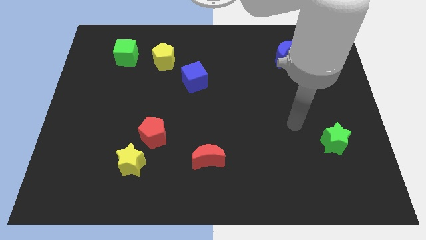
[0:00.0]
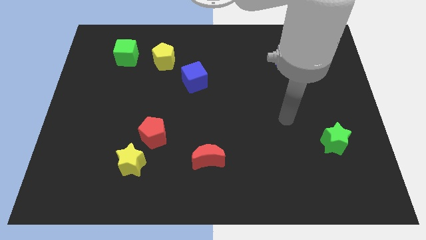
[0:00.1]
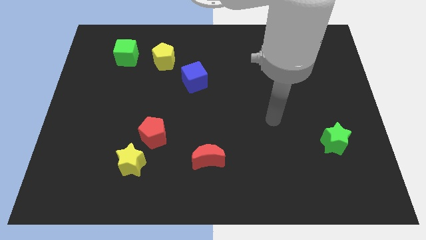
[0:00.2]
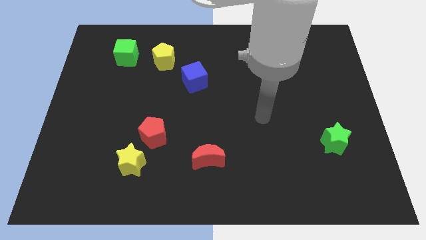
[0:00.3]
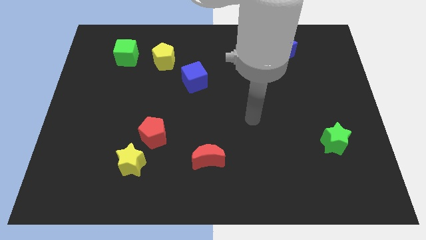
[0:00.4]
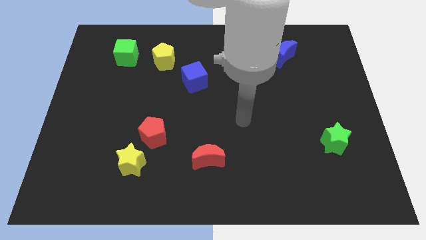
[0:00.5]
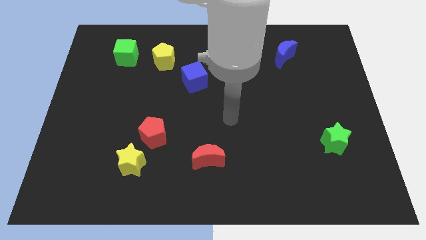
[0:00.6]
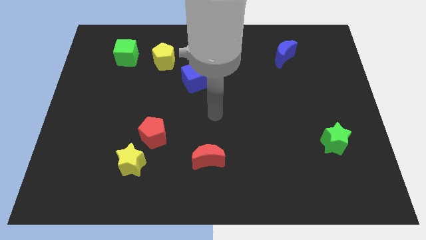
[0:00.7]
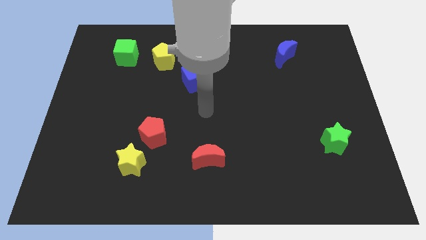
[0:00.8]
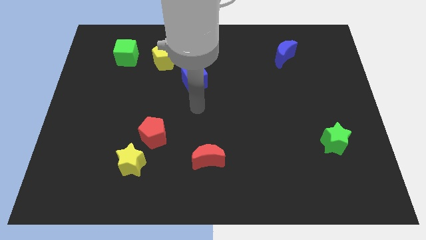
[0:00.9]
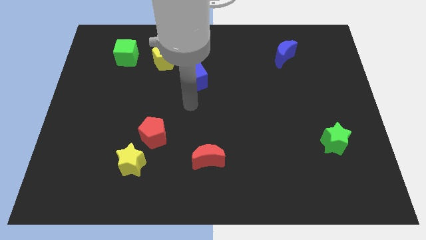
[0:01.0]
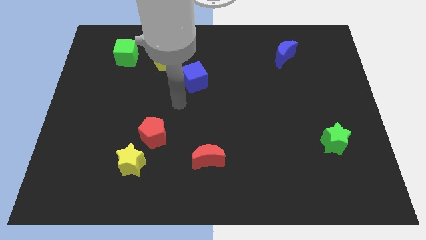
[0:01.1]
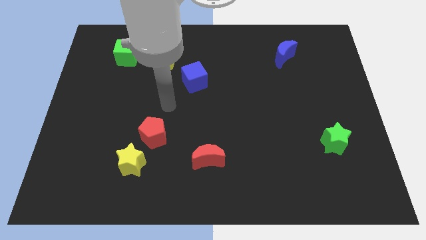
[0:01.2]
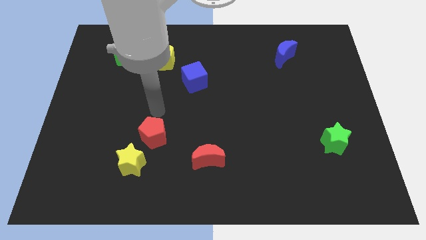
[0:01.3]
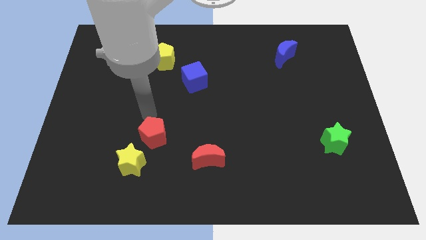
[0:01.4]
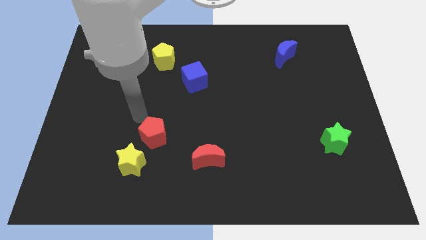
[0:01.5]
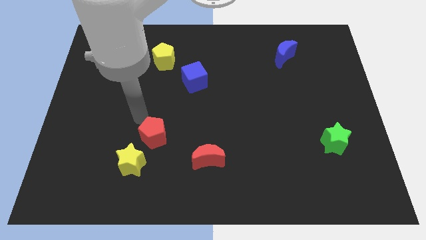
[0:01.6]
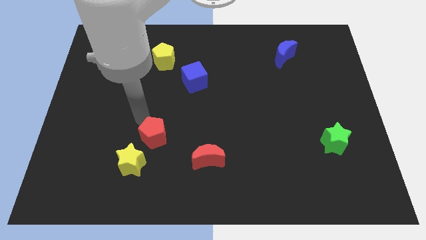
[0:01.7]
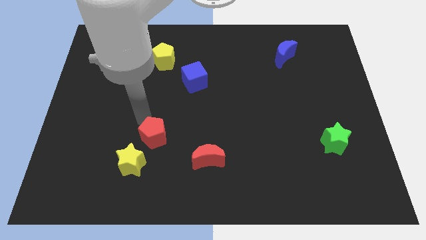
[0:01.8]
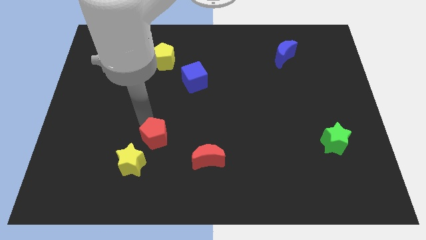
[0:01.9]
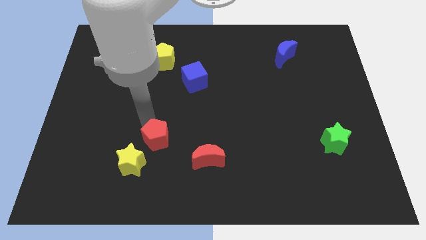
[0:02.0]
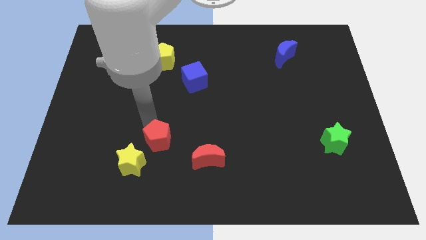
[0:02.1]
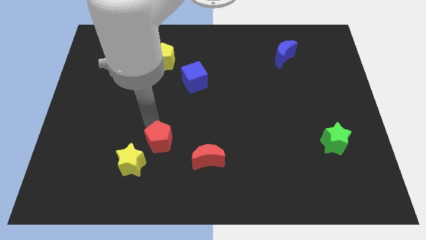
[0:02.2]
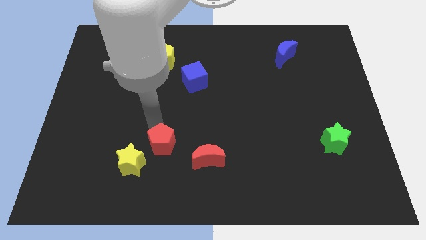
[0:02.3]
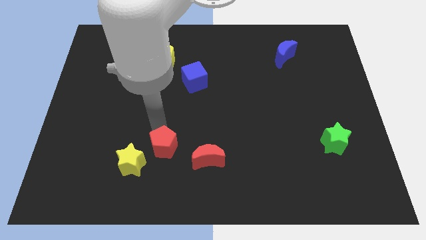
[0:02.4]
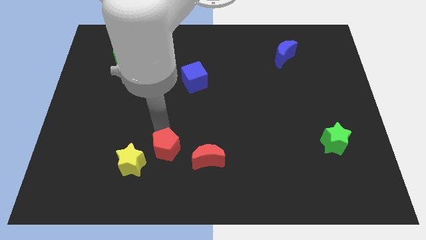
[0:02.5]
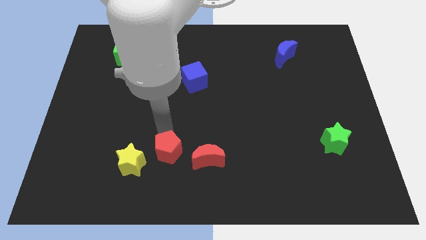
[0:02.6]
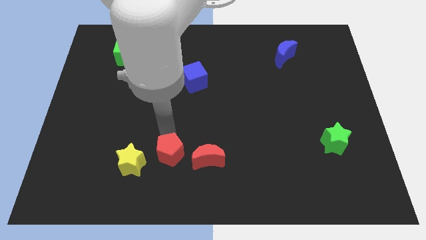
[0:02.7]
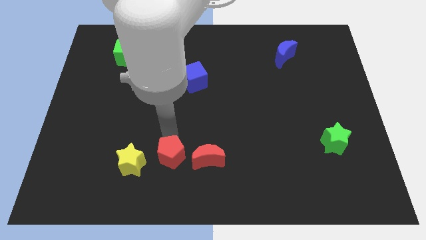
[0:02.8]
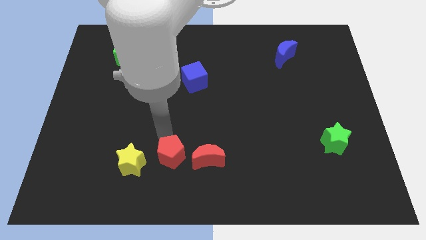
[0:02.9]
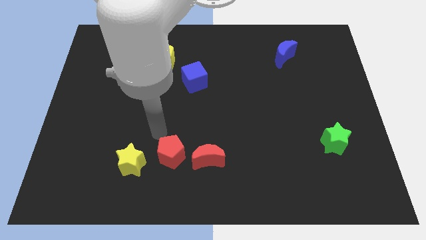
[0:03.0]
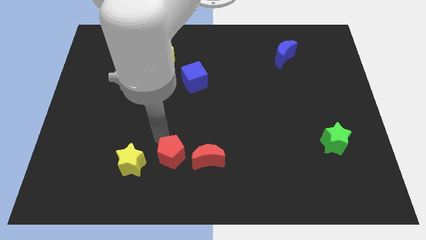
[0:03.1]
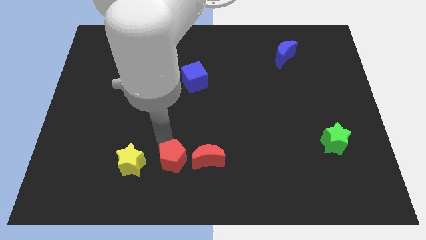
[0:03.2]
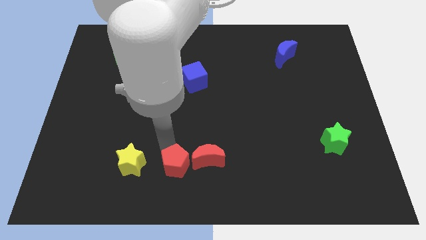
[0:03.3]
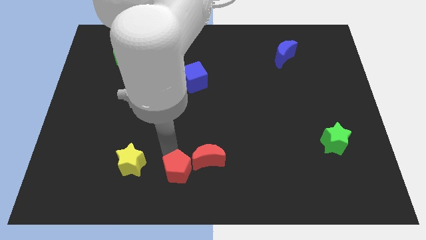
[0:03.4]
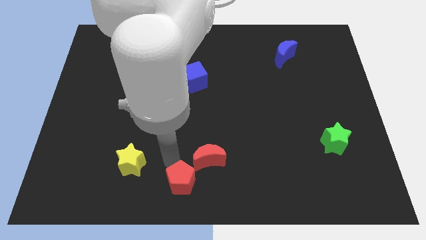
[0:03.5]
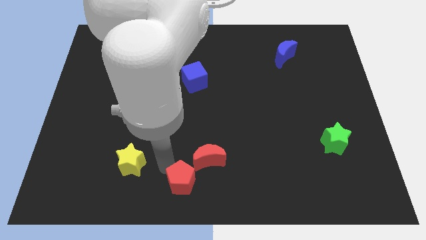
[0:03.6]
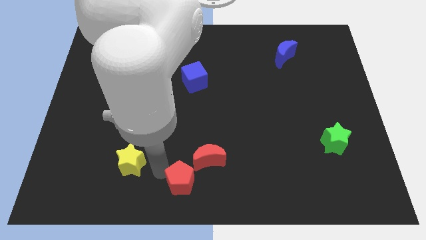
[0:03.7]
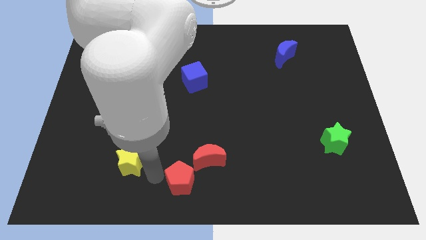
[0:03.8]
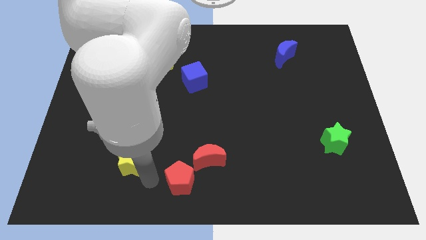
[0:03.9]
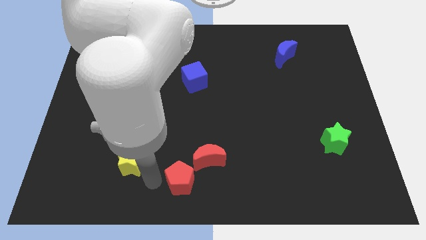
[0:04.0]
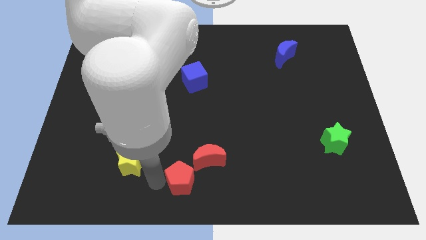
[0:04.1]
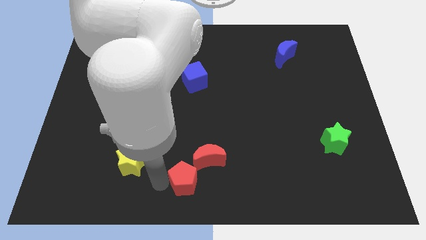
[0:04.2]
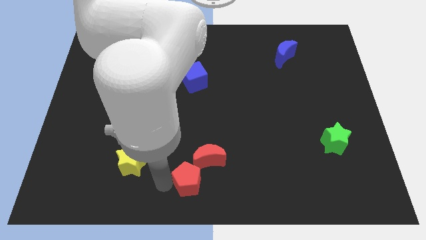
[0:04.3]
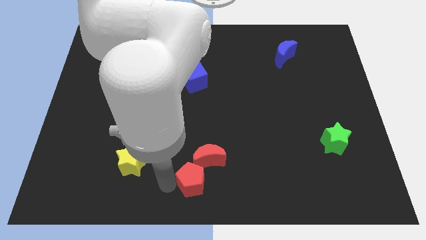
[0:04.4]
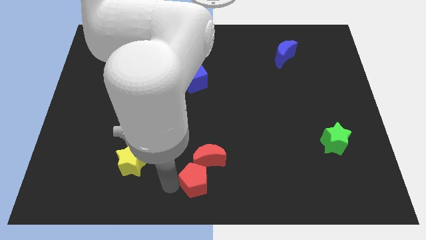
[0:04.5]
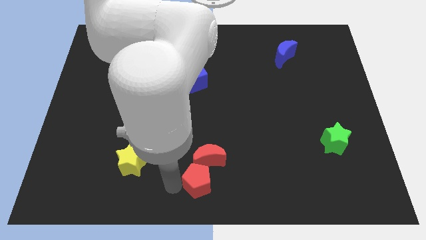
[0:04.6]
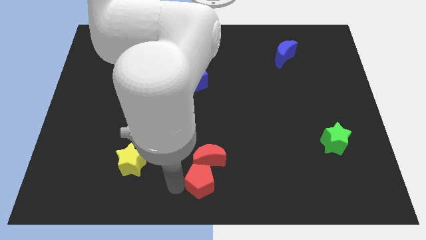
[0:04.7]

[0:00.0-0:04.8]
slide the red pentagon to the bottom right of the red moon

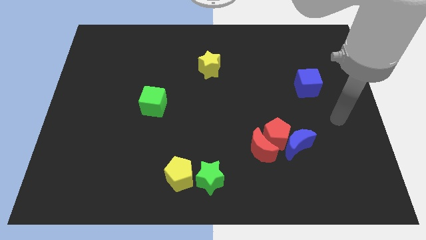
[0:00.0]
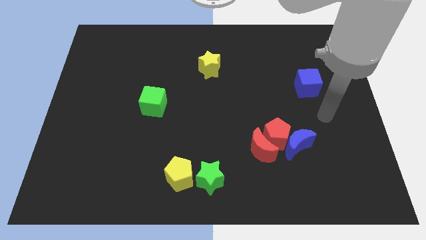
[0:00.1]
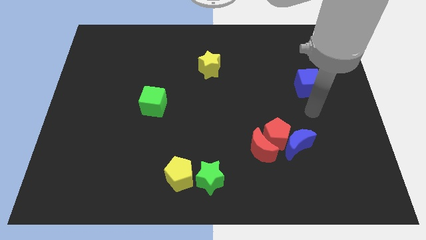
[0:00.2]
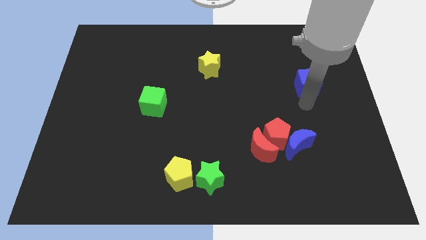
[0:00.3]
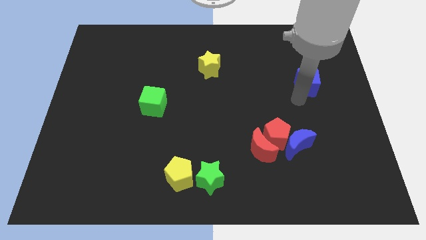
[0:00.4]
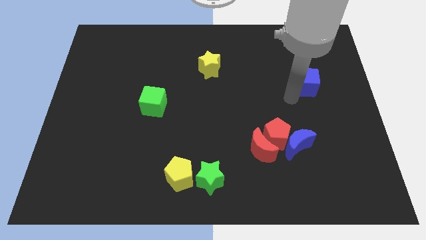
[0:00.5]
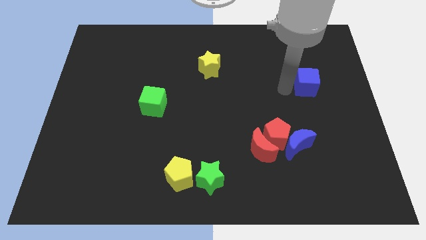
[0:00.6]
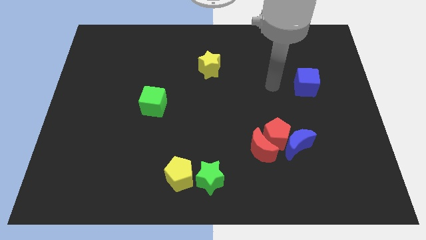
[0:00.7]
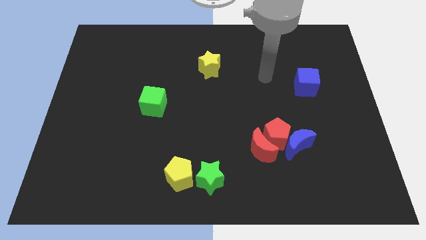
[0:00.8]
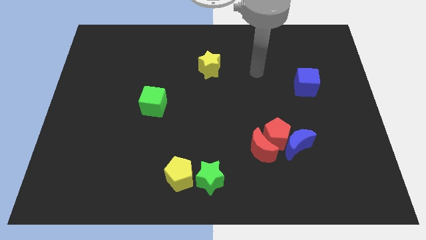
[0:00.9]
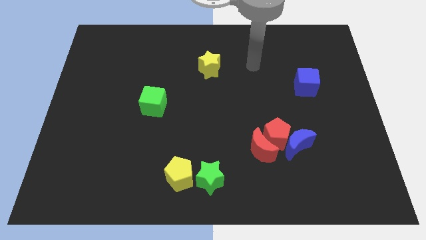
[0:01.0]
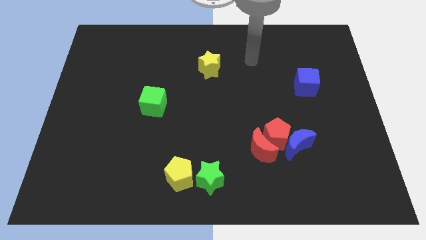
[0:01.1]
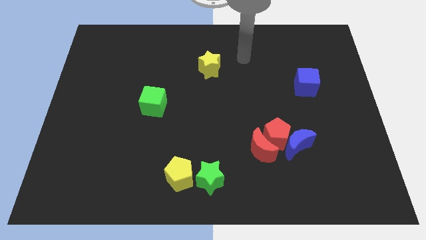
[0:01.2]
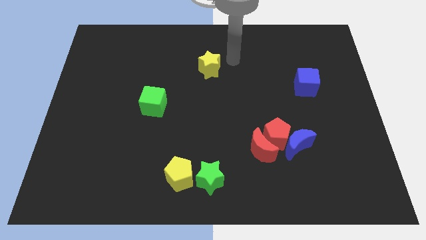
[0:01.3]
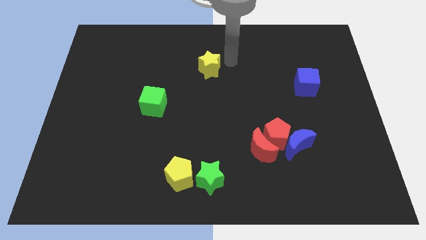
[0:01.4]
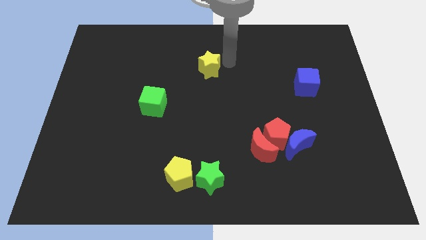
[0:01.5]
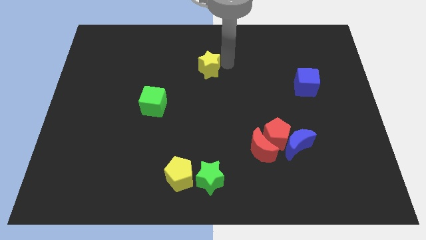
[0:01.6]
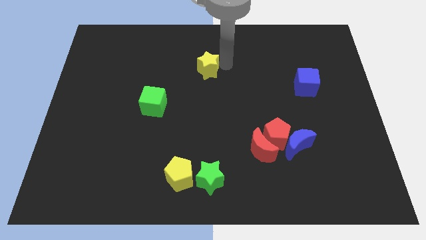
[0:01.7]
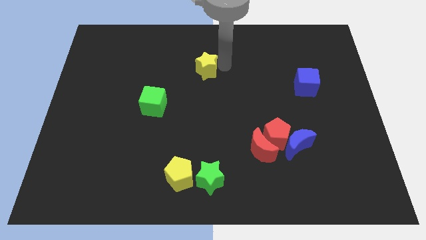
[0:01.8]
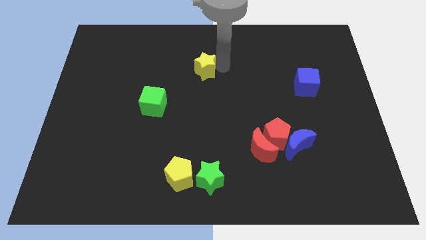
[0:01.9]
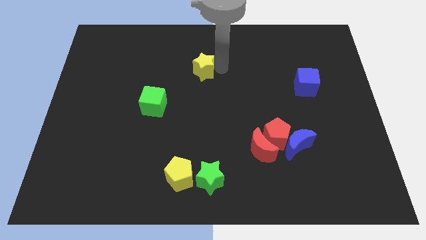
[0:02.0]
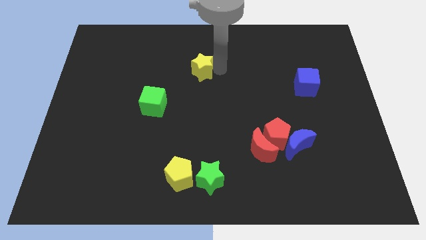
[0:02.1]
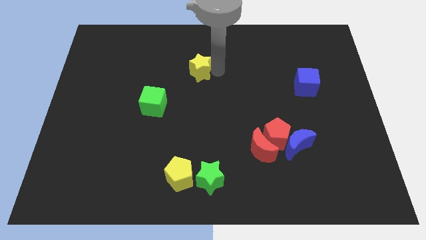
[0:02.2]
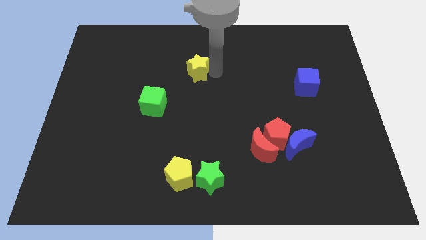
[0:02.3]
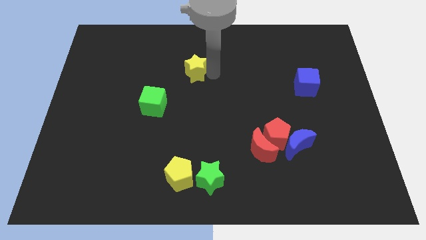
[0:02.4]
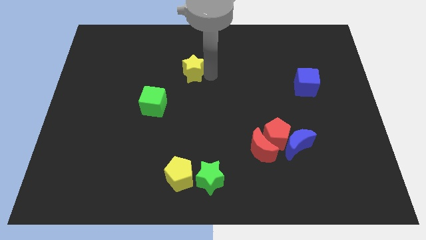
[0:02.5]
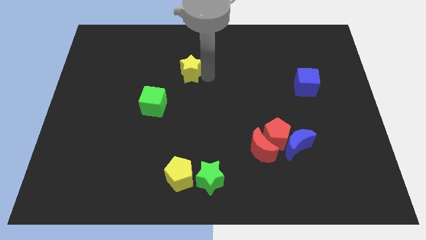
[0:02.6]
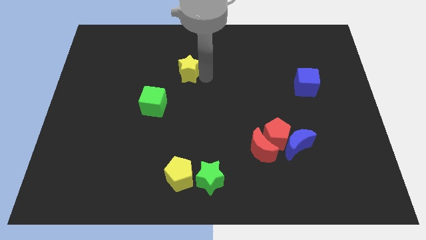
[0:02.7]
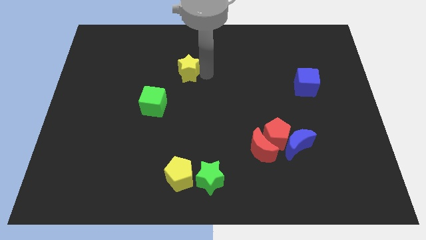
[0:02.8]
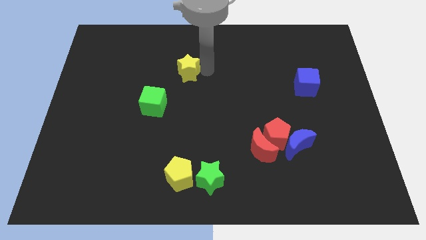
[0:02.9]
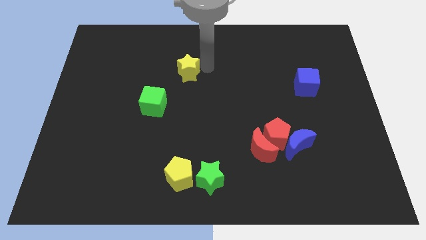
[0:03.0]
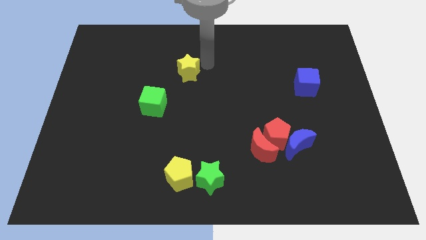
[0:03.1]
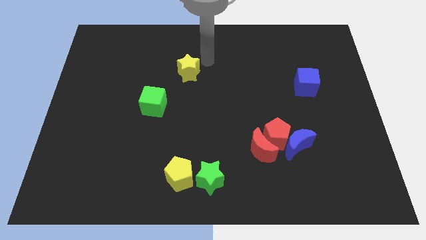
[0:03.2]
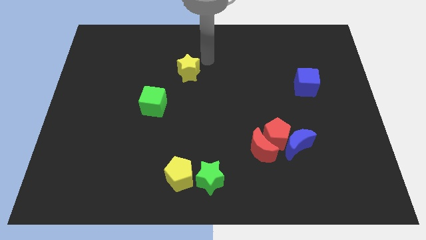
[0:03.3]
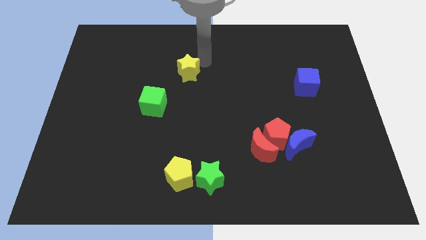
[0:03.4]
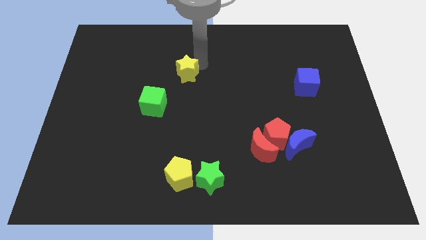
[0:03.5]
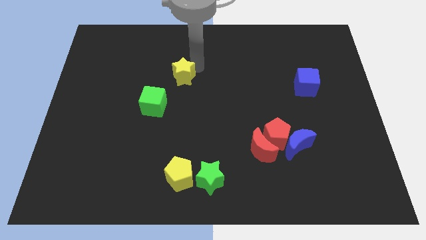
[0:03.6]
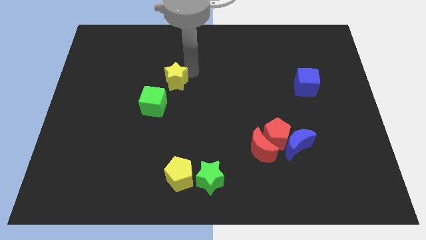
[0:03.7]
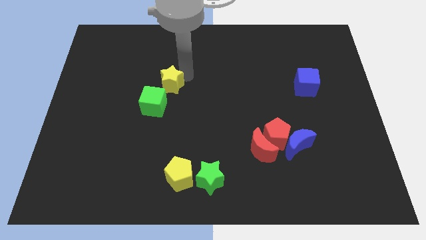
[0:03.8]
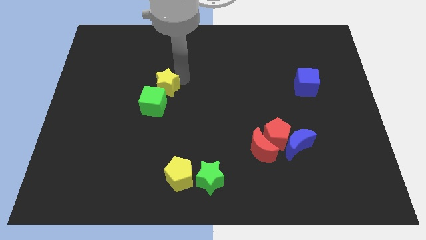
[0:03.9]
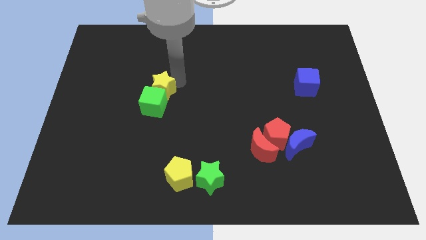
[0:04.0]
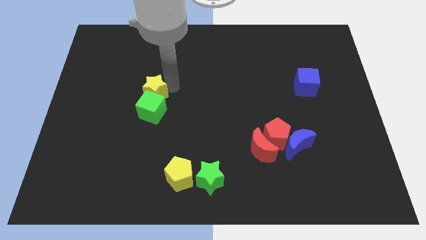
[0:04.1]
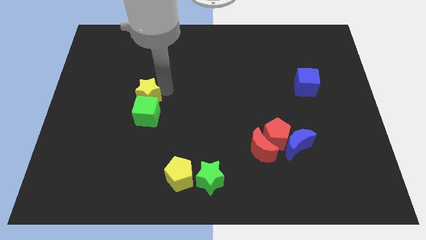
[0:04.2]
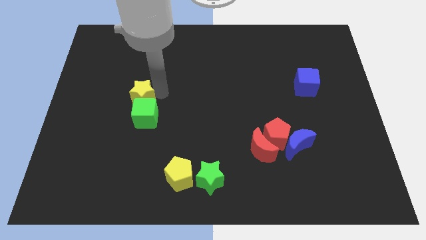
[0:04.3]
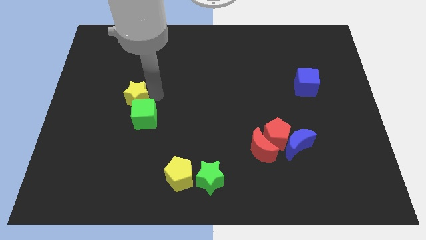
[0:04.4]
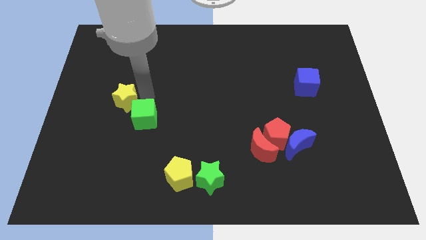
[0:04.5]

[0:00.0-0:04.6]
move the yellow star just left of the green cube
